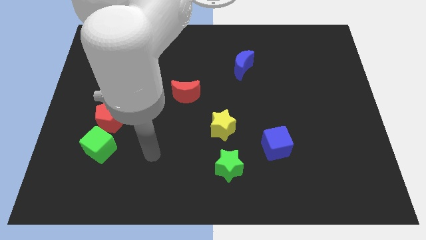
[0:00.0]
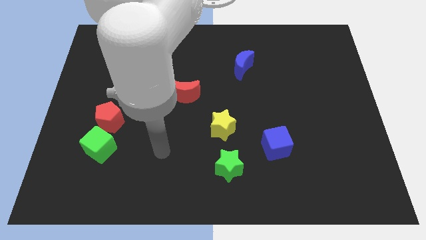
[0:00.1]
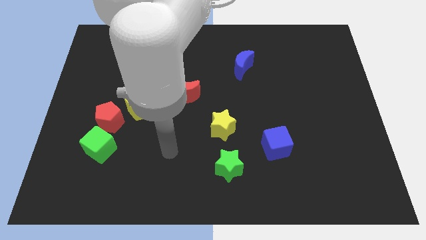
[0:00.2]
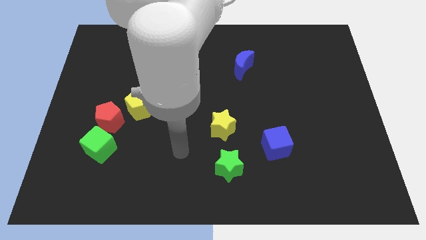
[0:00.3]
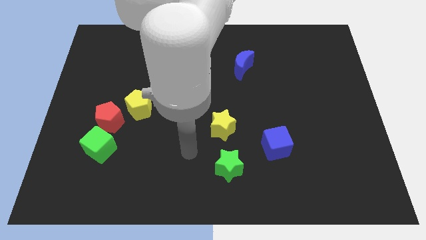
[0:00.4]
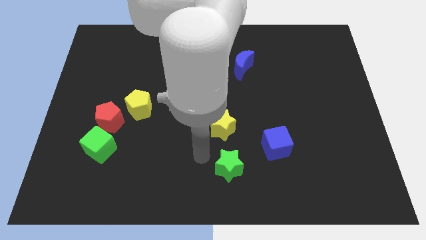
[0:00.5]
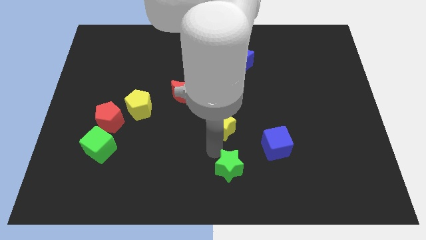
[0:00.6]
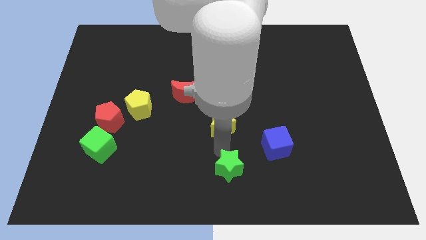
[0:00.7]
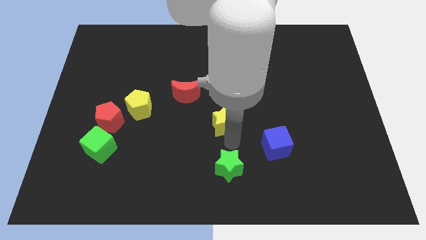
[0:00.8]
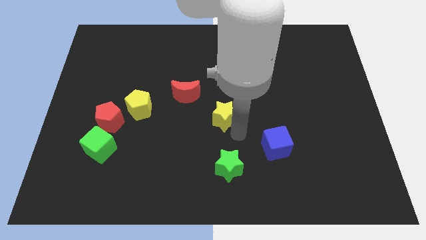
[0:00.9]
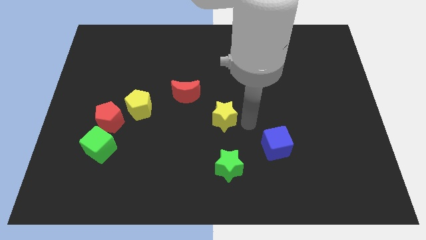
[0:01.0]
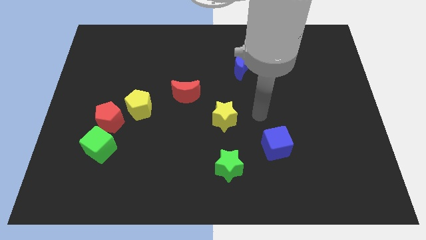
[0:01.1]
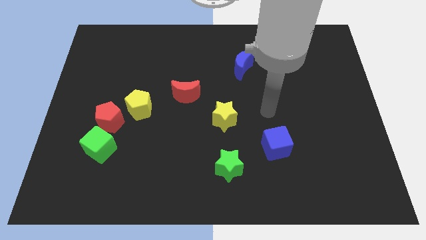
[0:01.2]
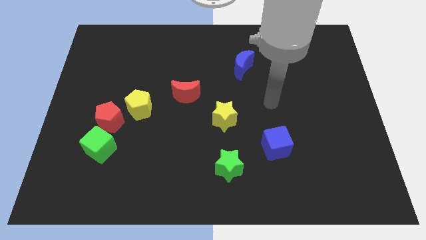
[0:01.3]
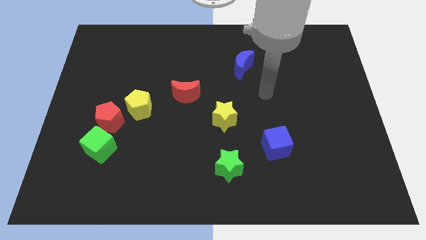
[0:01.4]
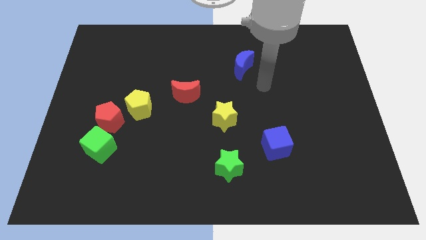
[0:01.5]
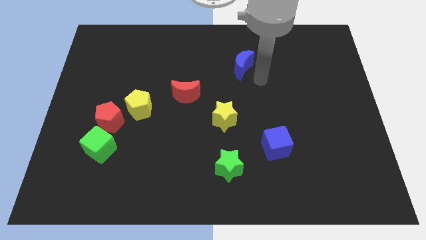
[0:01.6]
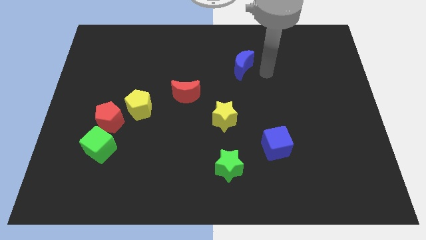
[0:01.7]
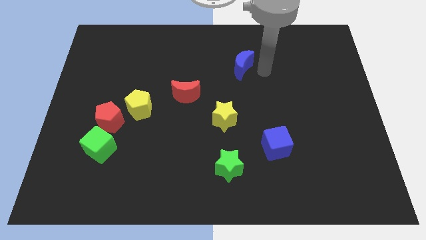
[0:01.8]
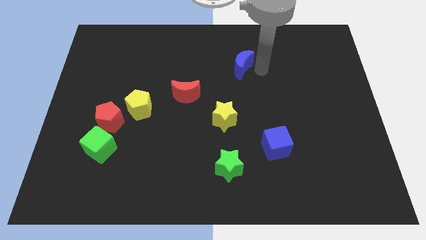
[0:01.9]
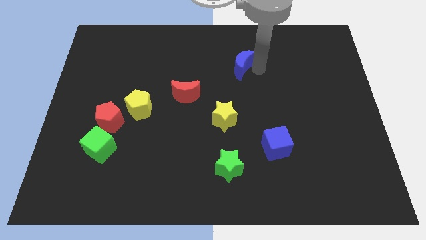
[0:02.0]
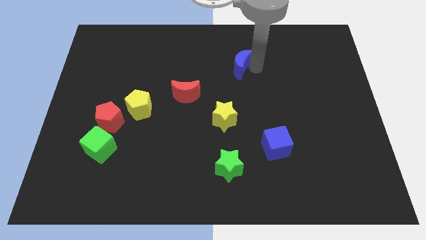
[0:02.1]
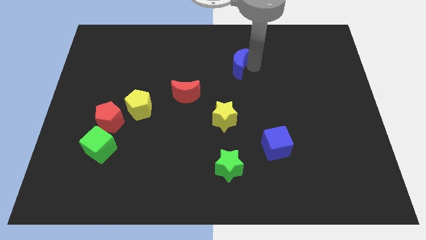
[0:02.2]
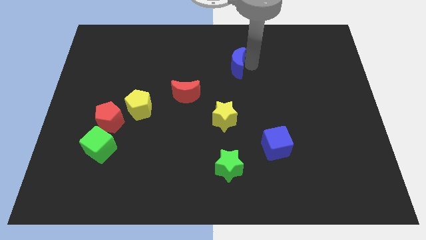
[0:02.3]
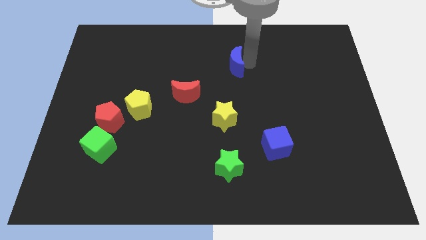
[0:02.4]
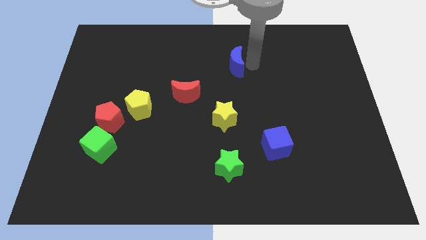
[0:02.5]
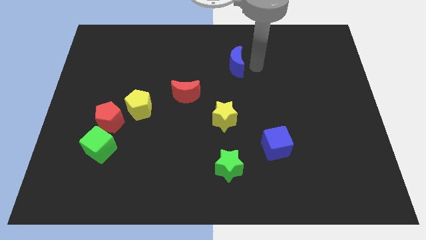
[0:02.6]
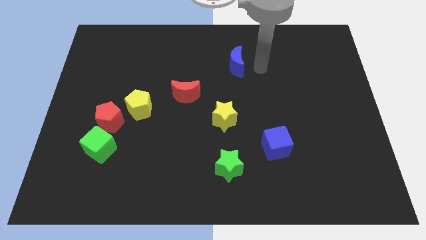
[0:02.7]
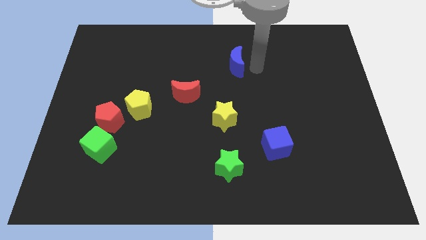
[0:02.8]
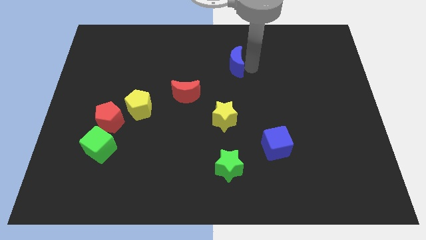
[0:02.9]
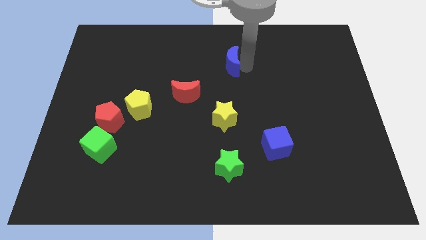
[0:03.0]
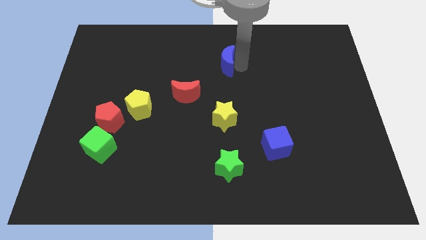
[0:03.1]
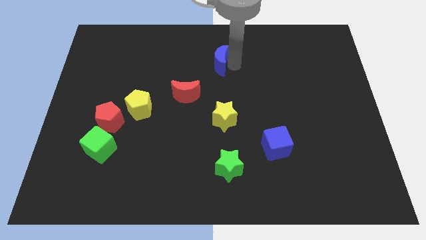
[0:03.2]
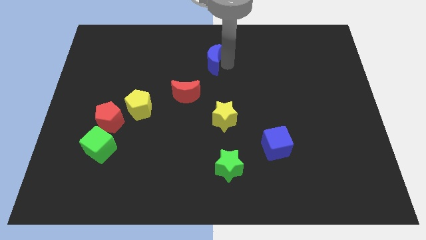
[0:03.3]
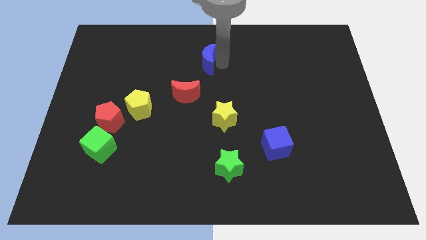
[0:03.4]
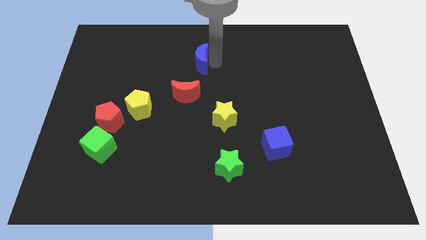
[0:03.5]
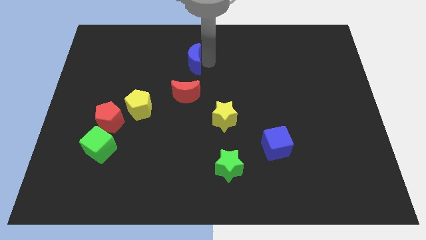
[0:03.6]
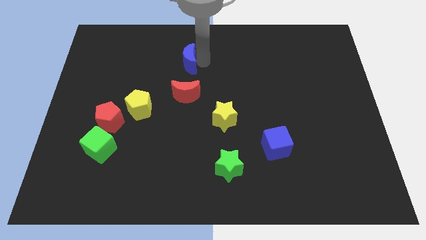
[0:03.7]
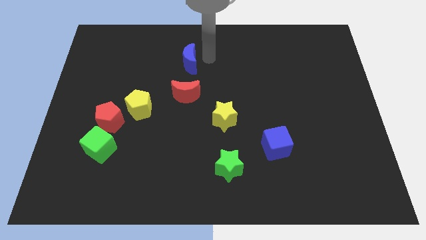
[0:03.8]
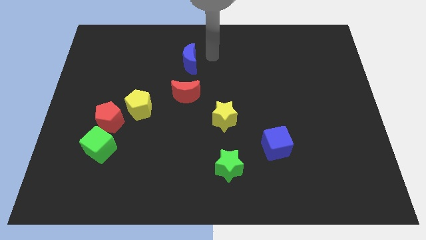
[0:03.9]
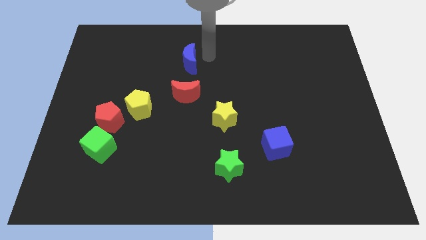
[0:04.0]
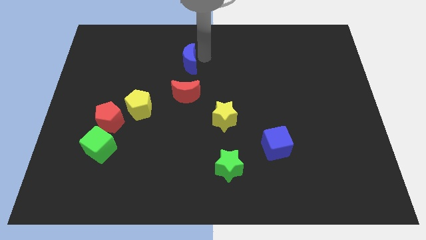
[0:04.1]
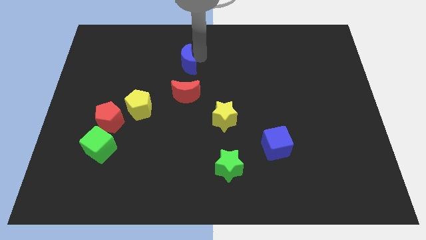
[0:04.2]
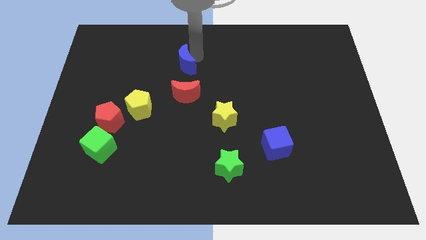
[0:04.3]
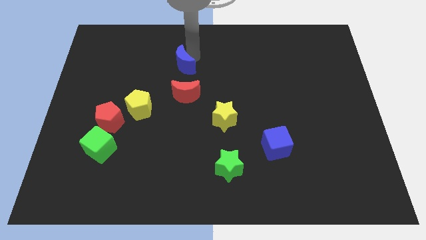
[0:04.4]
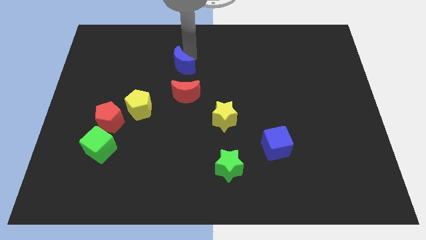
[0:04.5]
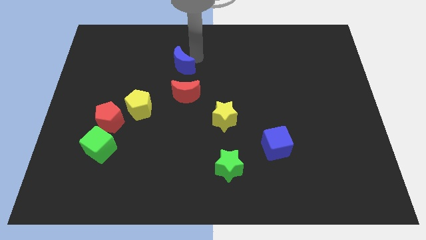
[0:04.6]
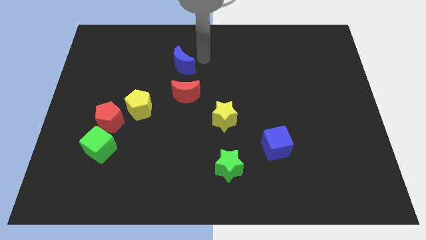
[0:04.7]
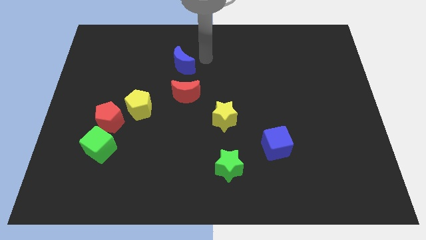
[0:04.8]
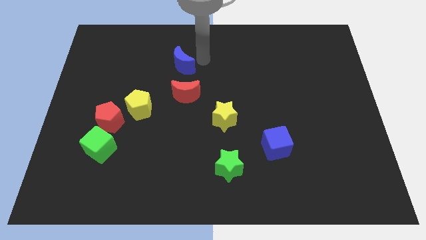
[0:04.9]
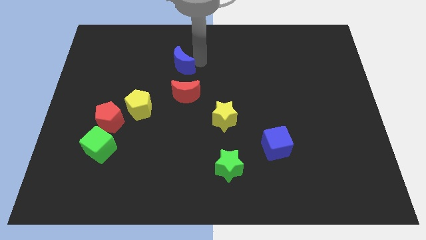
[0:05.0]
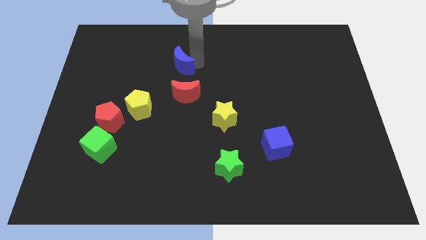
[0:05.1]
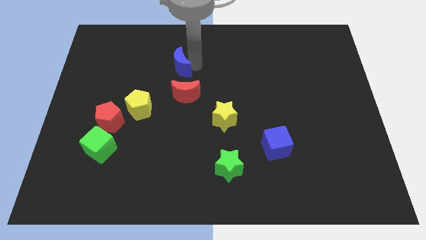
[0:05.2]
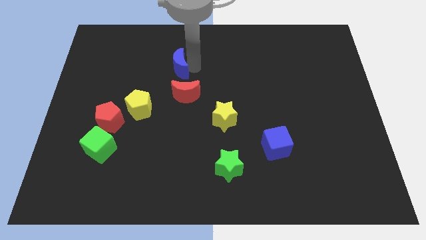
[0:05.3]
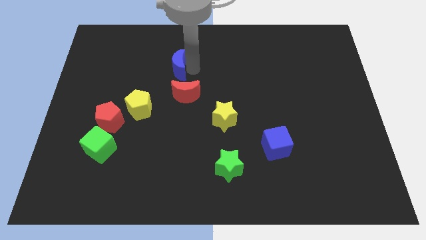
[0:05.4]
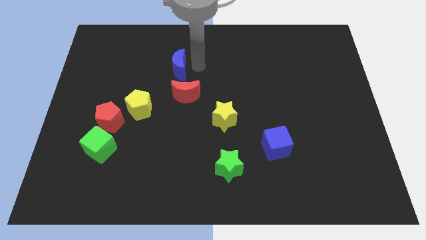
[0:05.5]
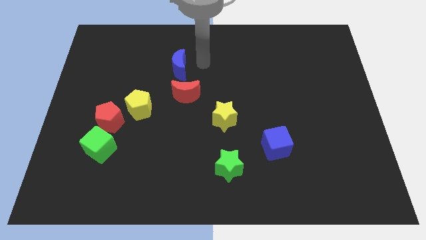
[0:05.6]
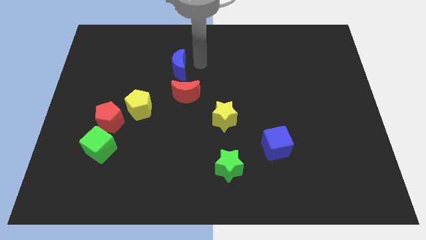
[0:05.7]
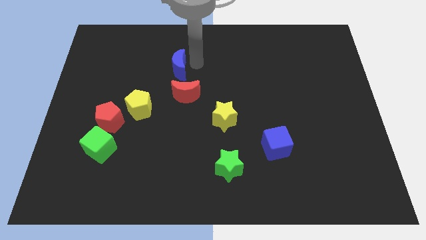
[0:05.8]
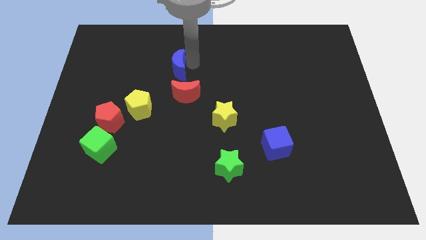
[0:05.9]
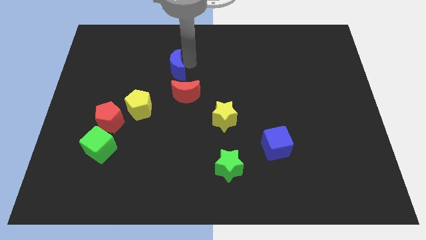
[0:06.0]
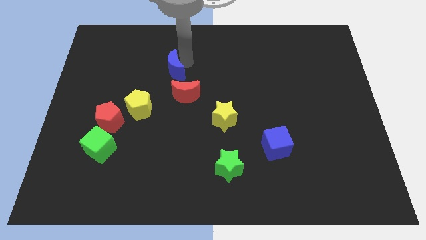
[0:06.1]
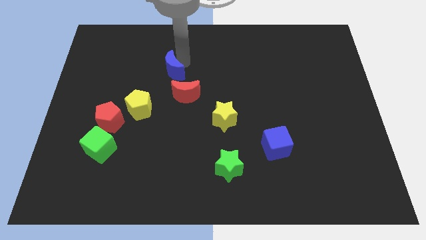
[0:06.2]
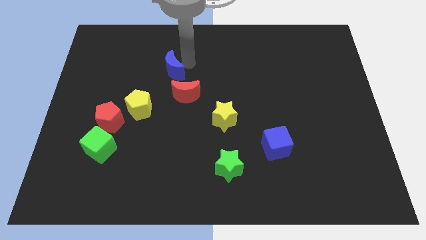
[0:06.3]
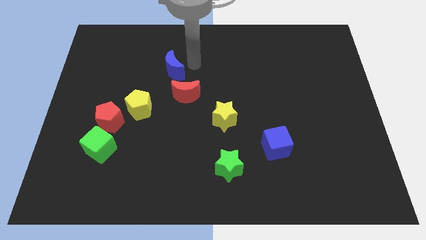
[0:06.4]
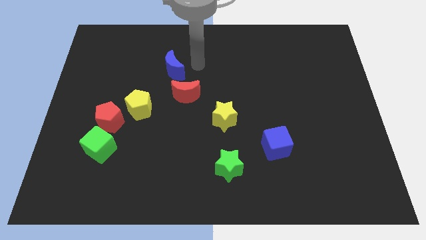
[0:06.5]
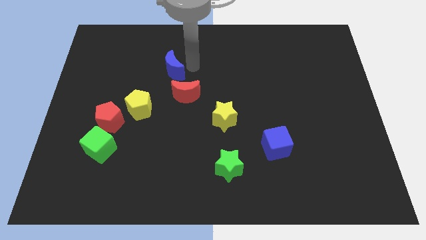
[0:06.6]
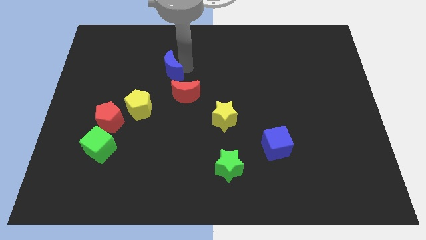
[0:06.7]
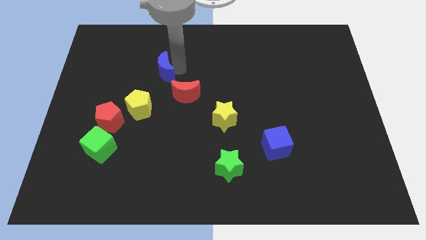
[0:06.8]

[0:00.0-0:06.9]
push the blue moon to the top side of the yellow pentagon
